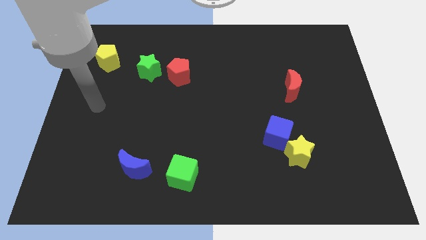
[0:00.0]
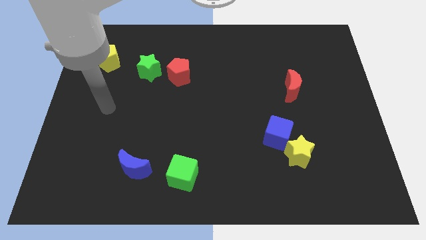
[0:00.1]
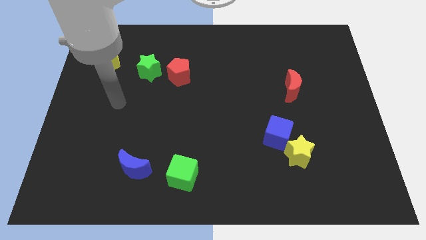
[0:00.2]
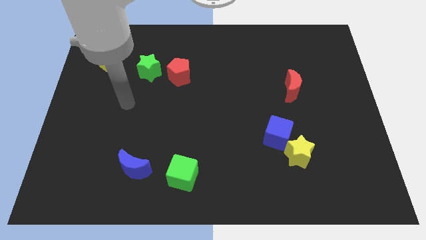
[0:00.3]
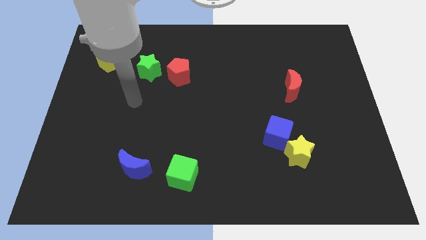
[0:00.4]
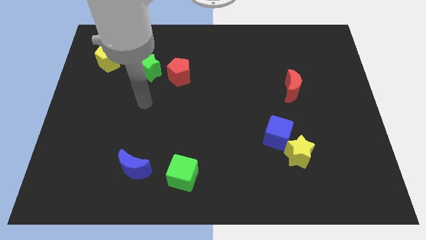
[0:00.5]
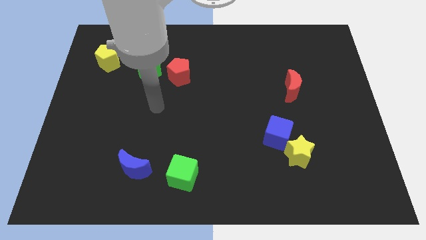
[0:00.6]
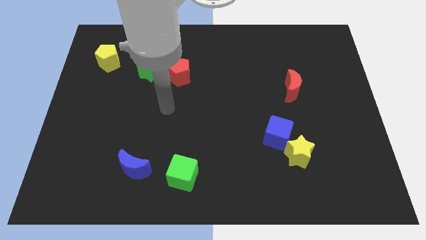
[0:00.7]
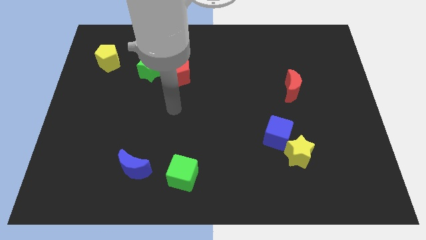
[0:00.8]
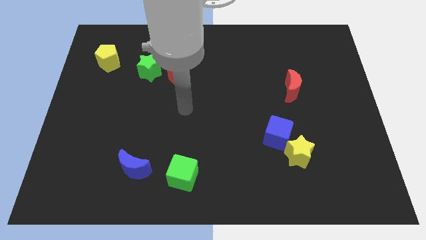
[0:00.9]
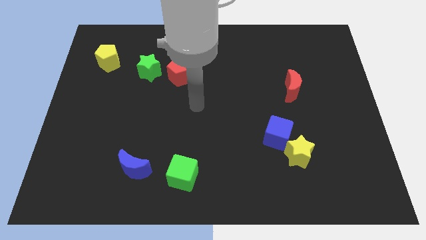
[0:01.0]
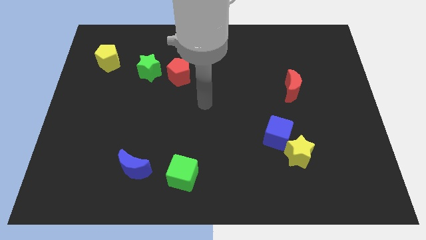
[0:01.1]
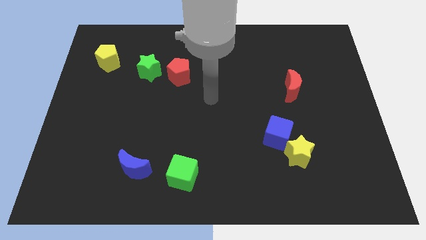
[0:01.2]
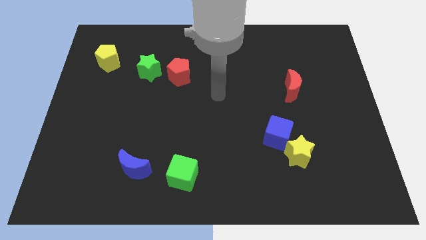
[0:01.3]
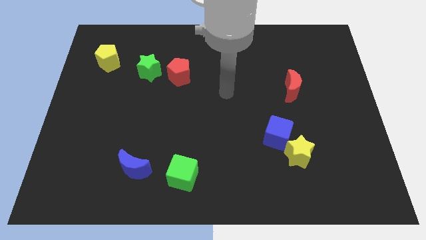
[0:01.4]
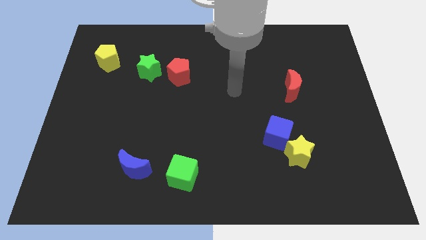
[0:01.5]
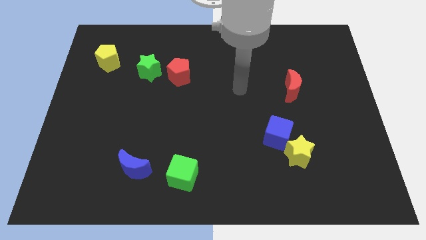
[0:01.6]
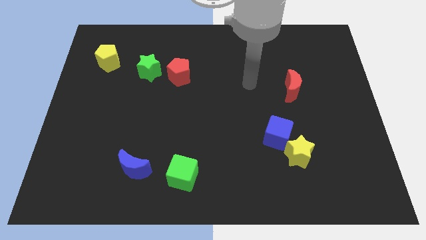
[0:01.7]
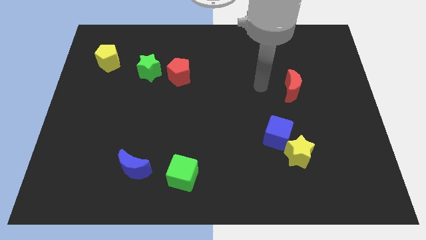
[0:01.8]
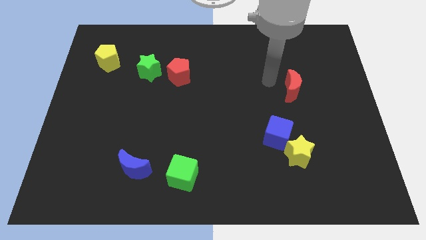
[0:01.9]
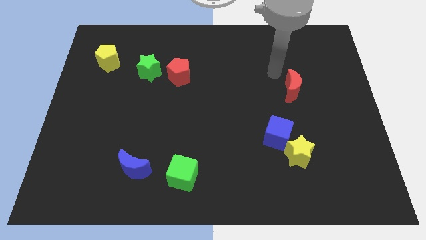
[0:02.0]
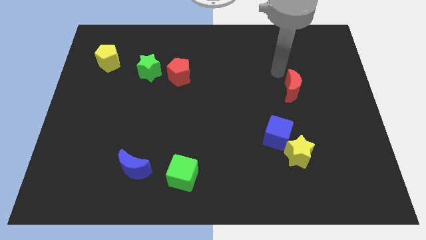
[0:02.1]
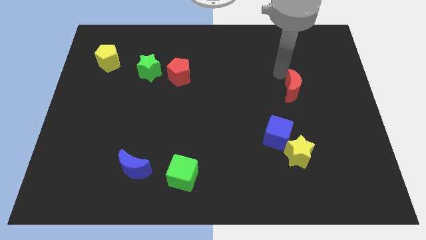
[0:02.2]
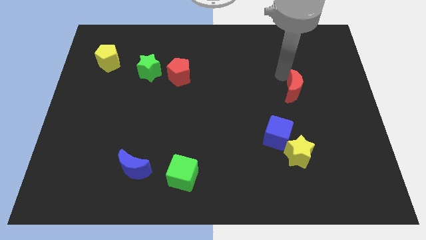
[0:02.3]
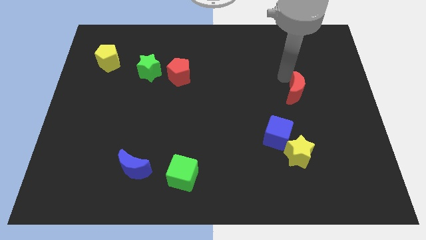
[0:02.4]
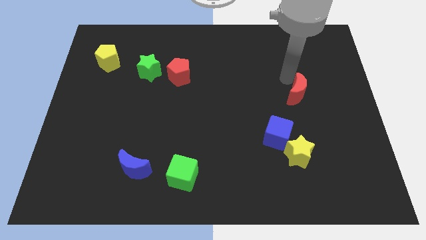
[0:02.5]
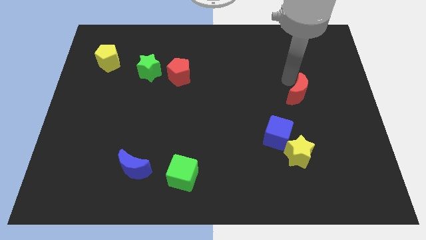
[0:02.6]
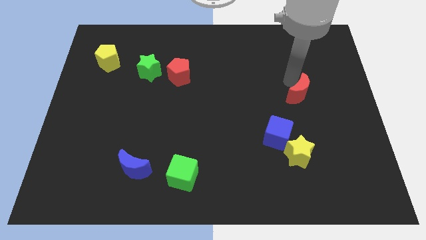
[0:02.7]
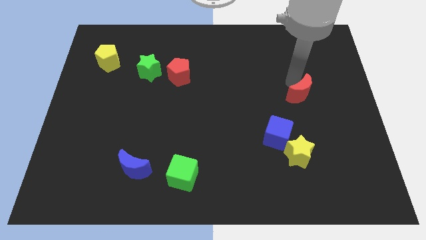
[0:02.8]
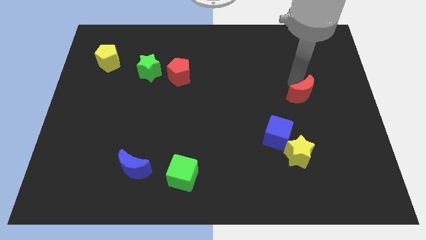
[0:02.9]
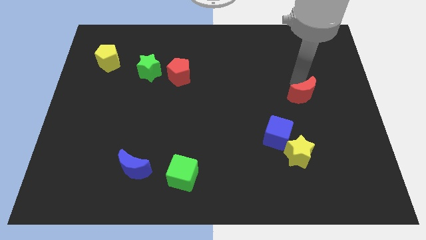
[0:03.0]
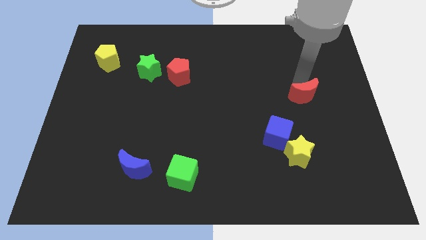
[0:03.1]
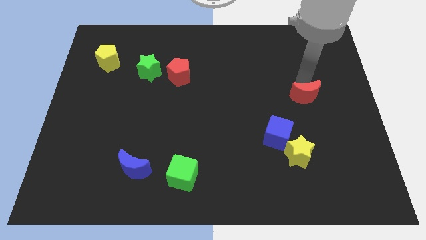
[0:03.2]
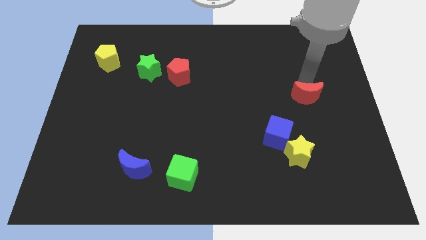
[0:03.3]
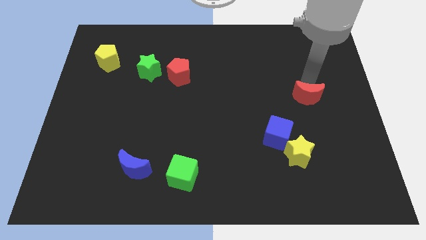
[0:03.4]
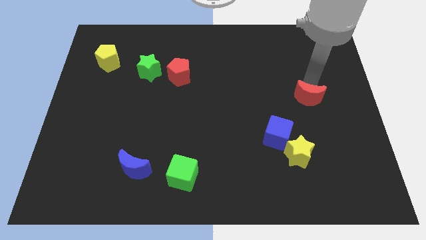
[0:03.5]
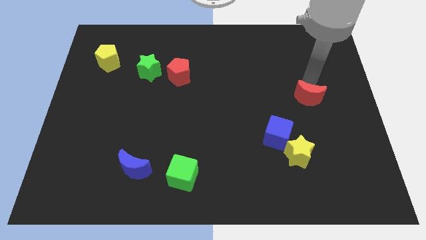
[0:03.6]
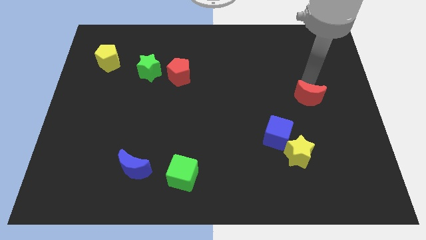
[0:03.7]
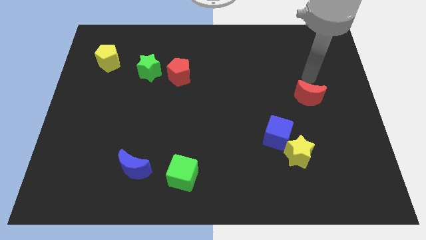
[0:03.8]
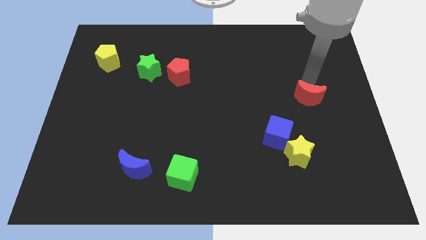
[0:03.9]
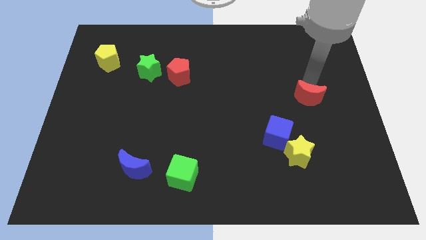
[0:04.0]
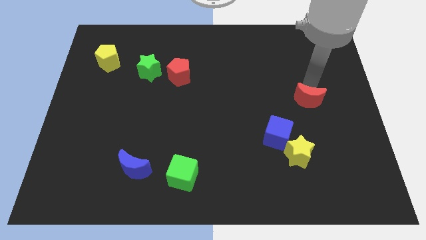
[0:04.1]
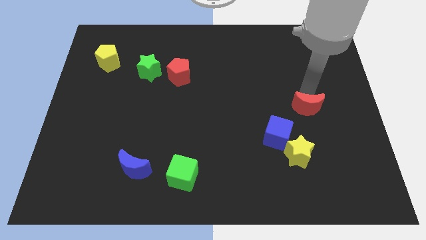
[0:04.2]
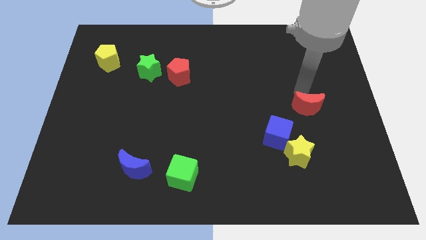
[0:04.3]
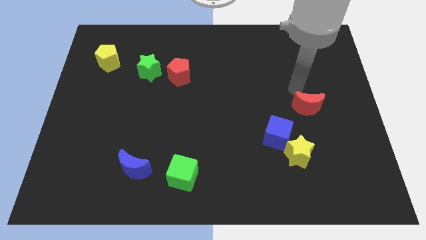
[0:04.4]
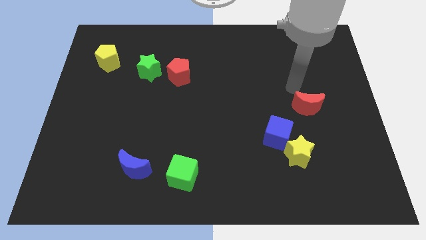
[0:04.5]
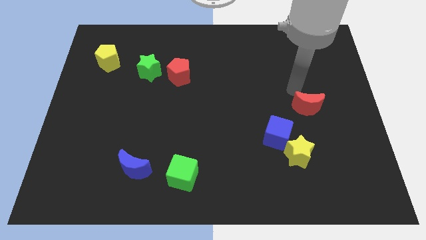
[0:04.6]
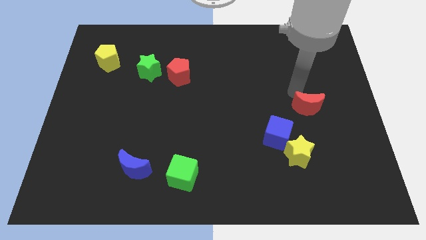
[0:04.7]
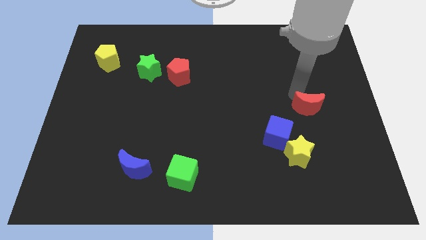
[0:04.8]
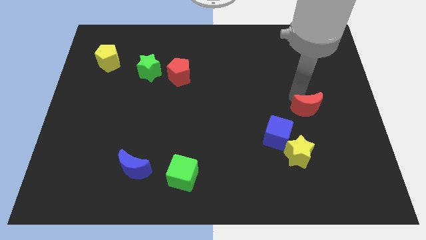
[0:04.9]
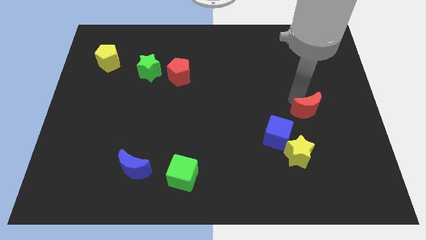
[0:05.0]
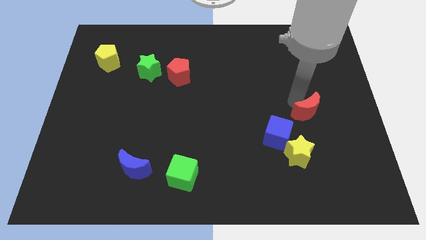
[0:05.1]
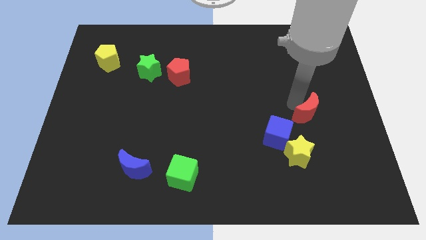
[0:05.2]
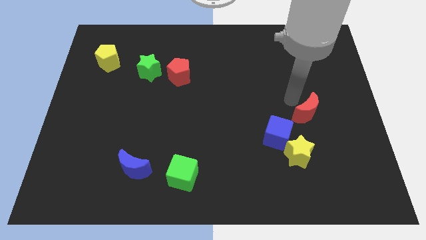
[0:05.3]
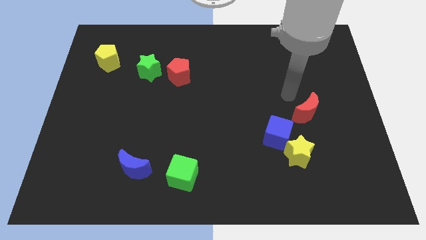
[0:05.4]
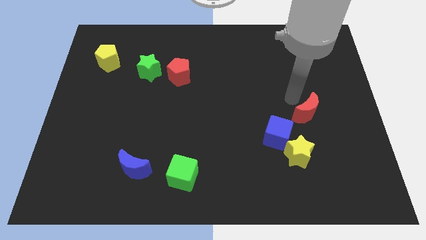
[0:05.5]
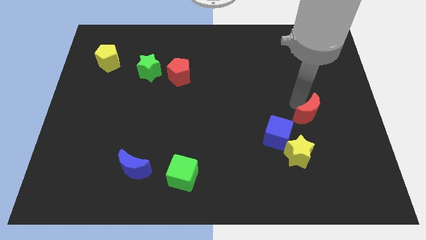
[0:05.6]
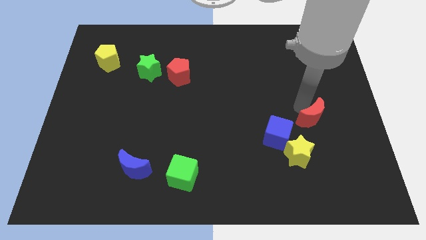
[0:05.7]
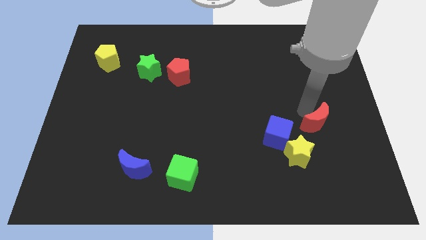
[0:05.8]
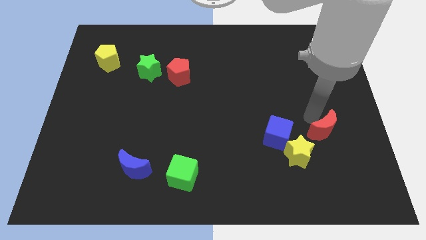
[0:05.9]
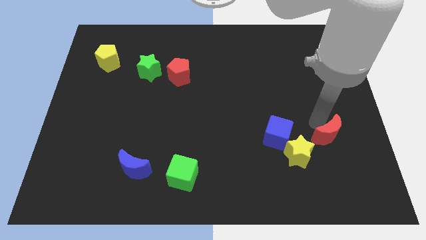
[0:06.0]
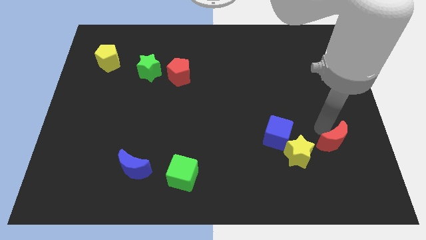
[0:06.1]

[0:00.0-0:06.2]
slide the red moon to the right side of the yellow star

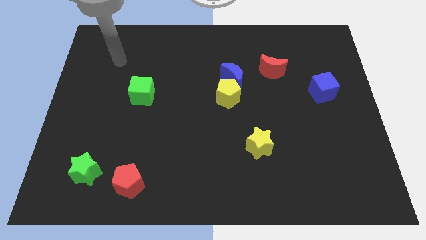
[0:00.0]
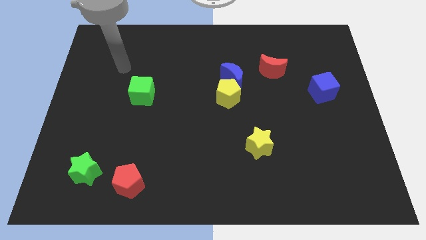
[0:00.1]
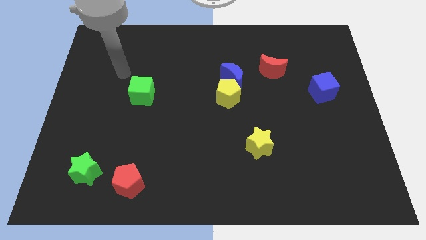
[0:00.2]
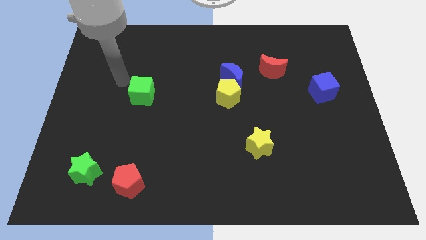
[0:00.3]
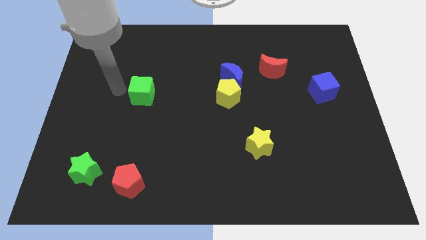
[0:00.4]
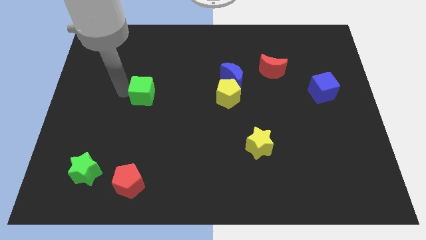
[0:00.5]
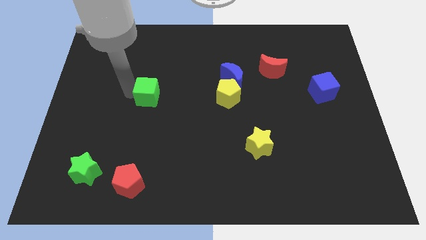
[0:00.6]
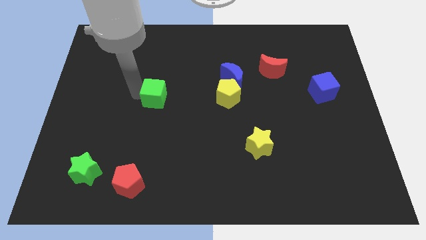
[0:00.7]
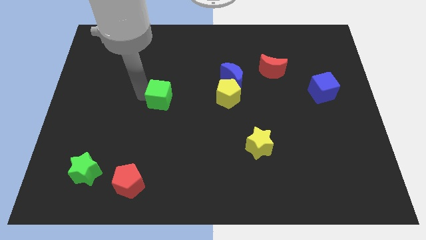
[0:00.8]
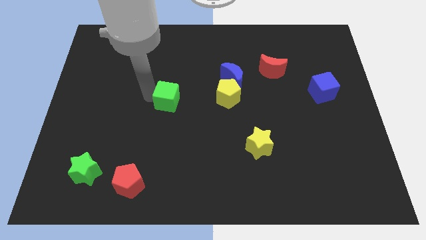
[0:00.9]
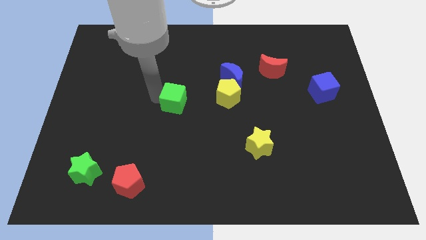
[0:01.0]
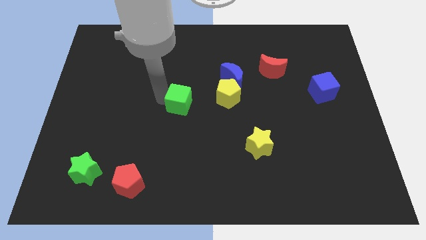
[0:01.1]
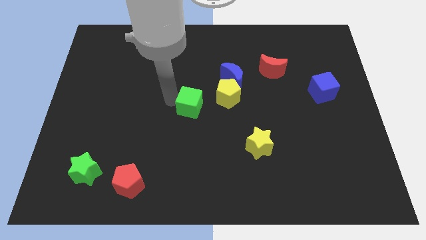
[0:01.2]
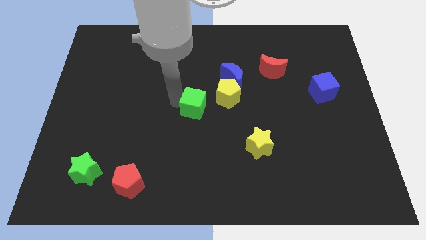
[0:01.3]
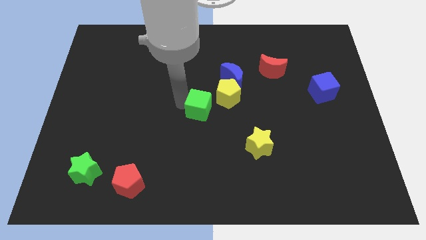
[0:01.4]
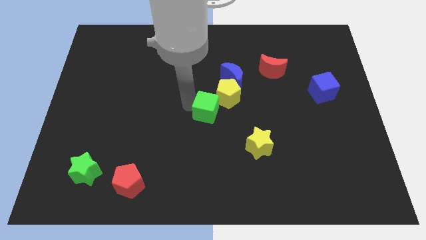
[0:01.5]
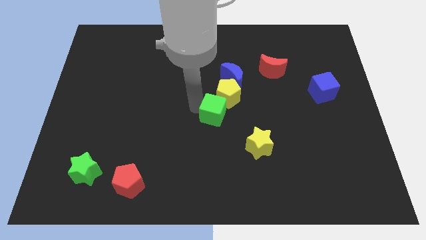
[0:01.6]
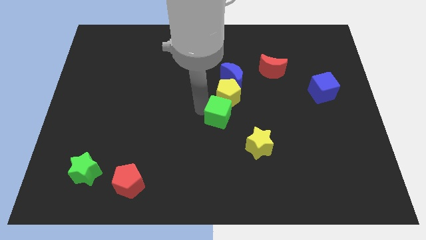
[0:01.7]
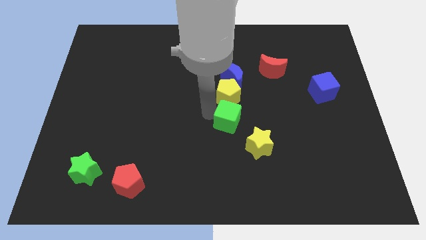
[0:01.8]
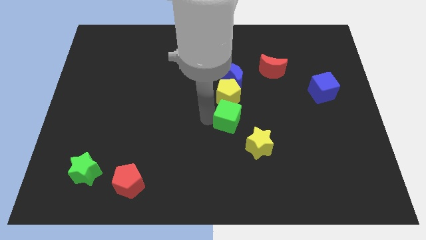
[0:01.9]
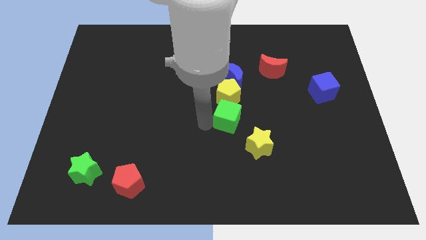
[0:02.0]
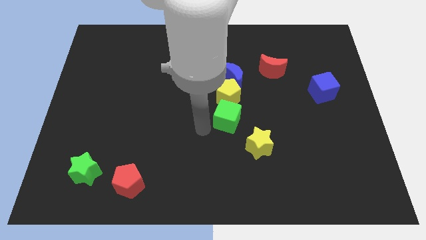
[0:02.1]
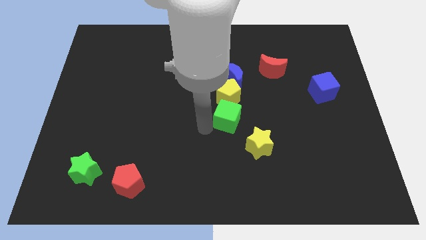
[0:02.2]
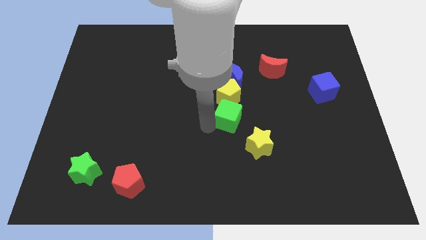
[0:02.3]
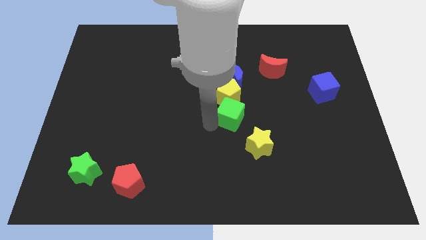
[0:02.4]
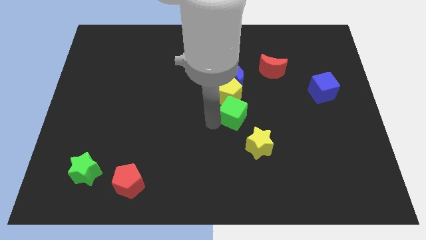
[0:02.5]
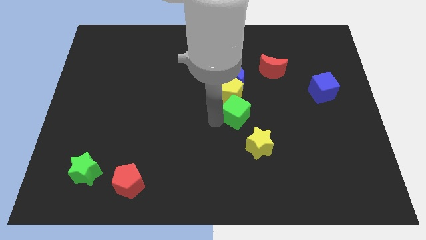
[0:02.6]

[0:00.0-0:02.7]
move the green cube to the top of the yellow star
